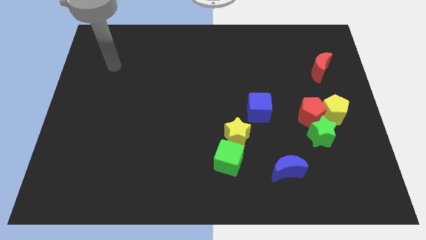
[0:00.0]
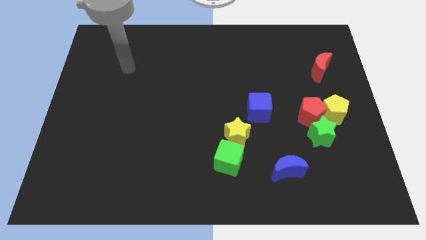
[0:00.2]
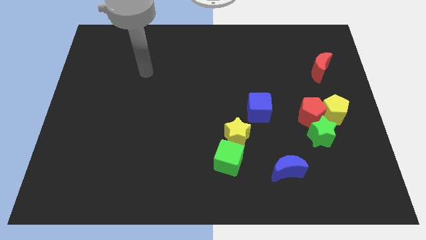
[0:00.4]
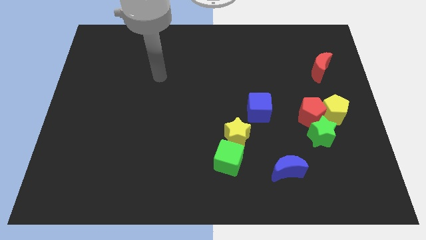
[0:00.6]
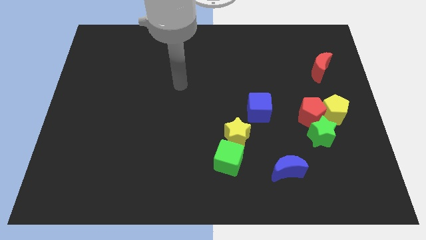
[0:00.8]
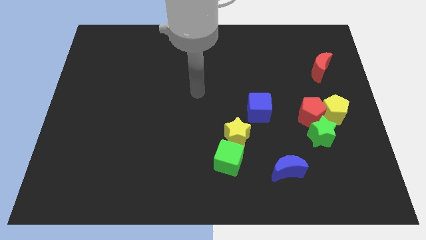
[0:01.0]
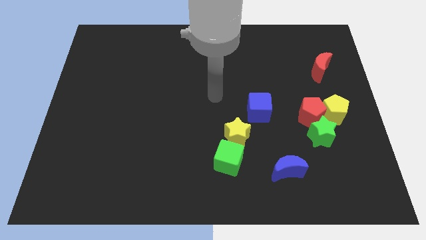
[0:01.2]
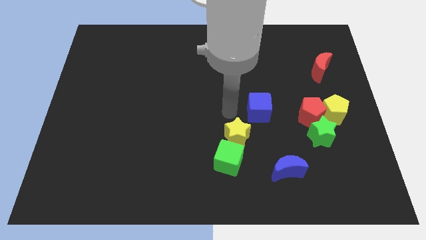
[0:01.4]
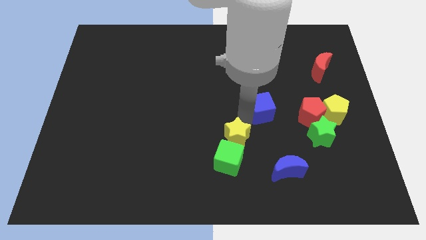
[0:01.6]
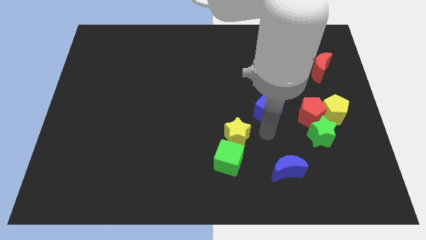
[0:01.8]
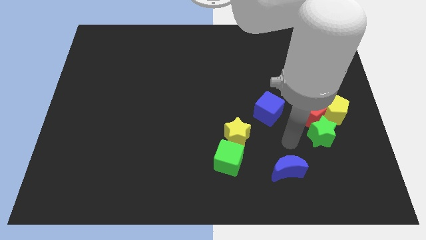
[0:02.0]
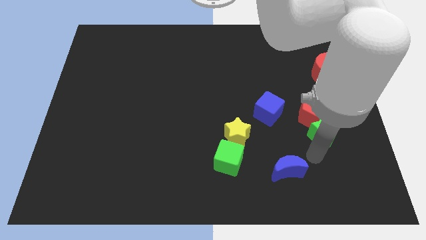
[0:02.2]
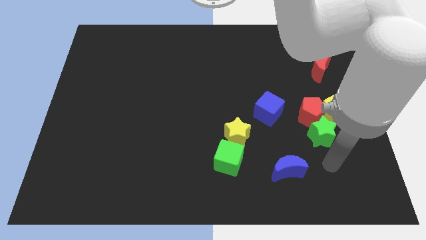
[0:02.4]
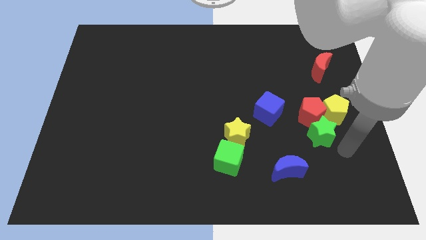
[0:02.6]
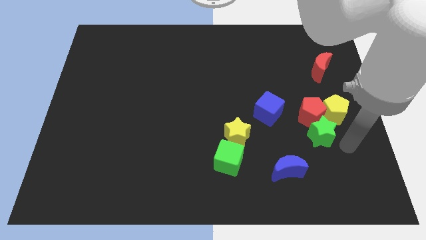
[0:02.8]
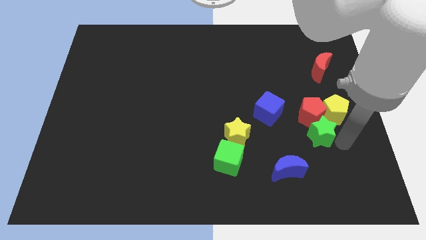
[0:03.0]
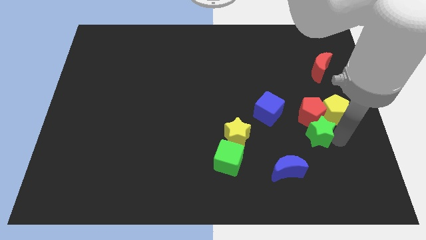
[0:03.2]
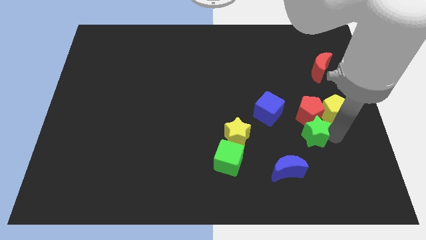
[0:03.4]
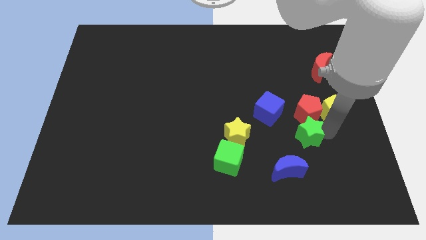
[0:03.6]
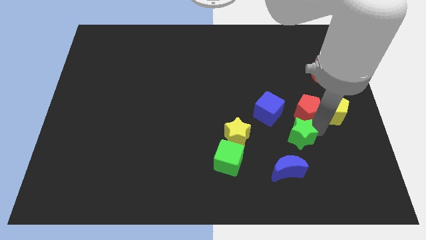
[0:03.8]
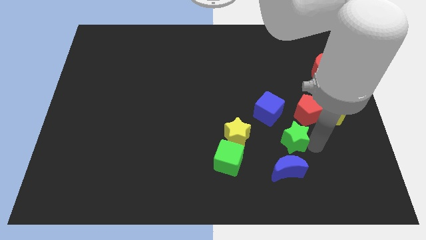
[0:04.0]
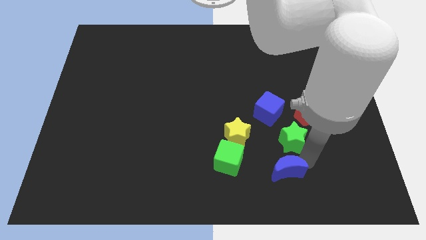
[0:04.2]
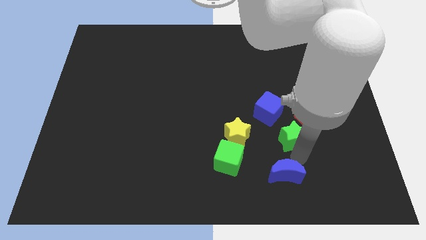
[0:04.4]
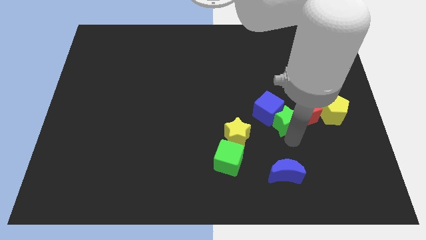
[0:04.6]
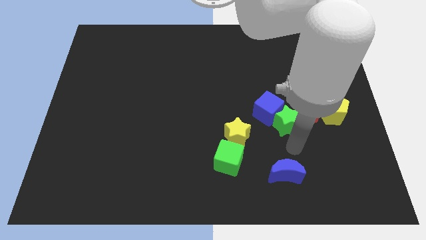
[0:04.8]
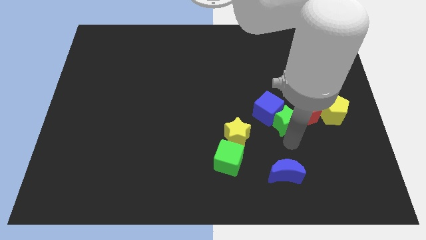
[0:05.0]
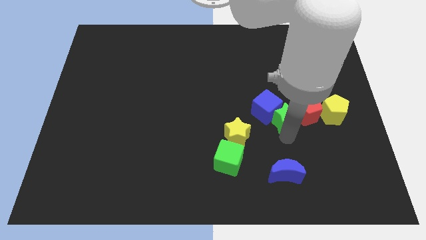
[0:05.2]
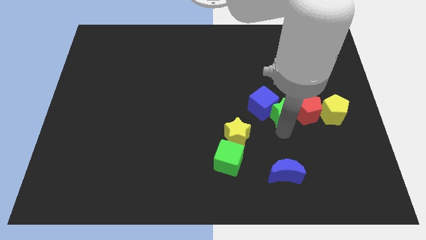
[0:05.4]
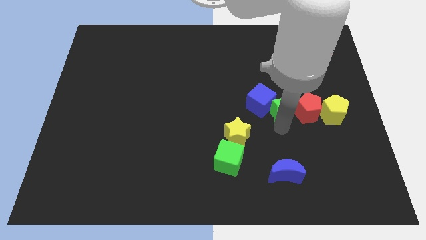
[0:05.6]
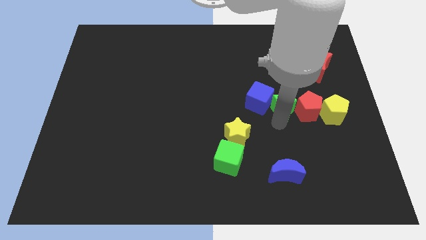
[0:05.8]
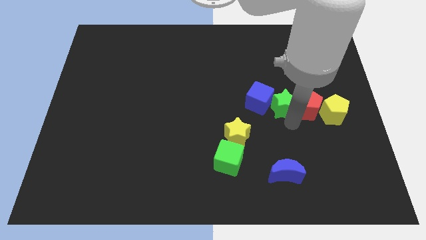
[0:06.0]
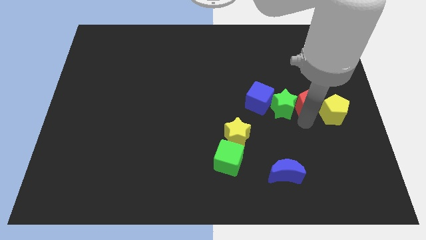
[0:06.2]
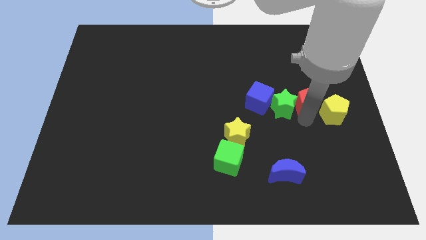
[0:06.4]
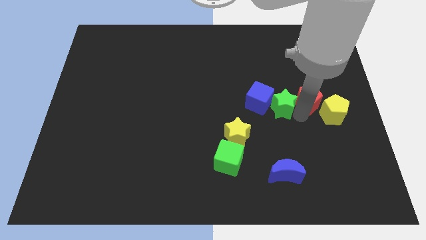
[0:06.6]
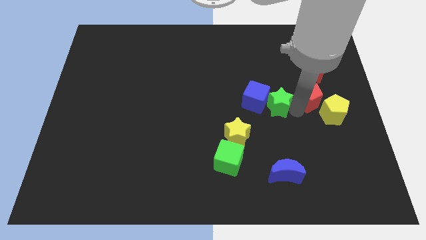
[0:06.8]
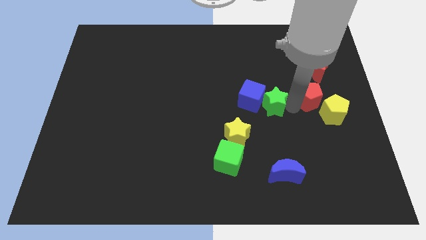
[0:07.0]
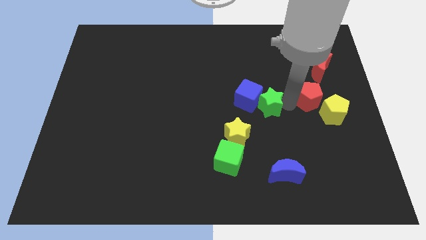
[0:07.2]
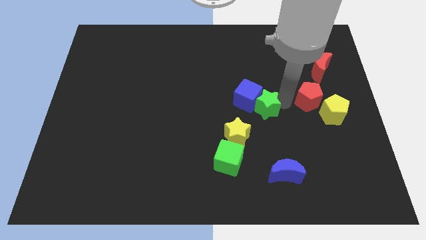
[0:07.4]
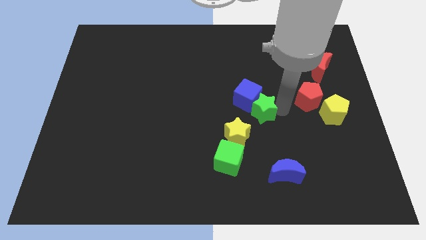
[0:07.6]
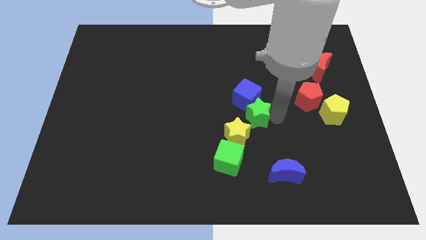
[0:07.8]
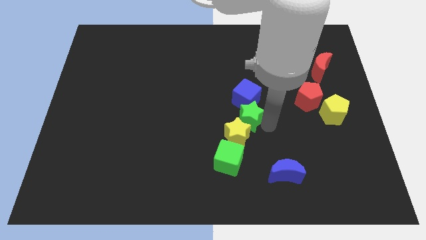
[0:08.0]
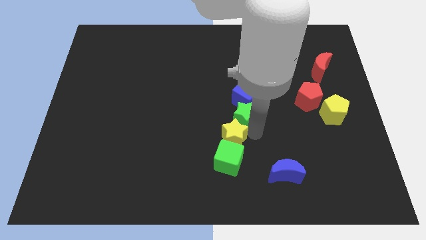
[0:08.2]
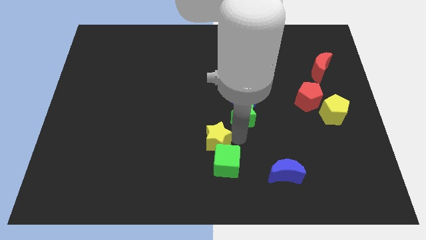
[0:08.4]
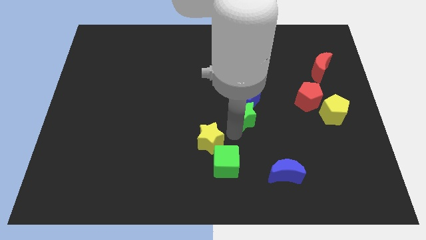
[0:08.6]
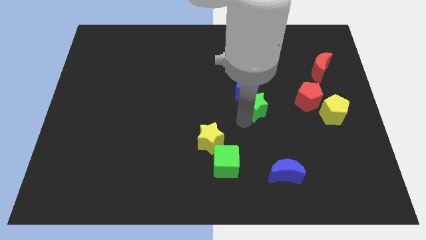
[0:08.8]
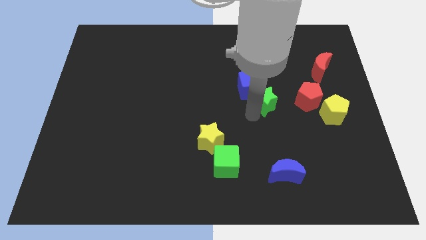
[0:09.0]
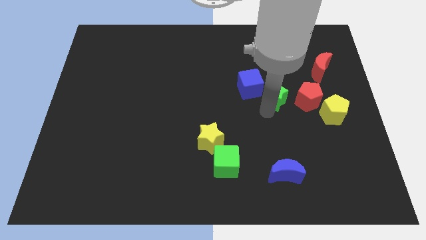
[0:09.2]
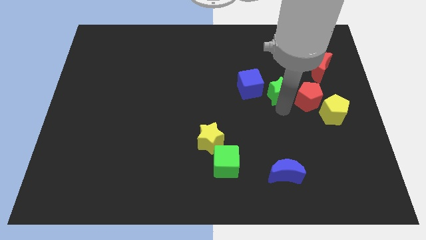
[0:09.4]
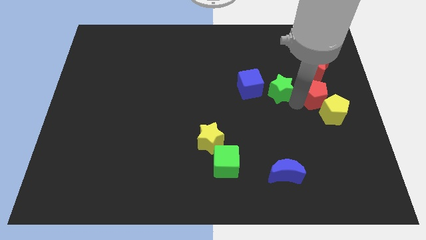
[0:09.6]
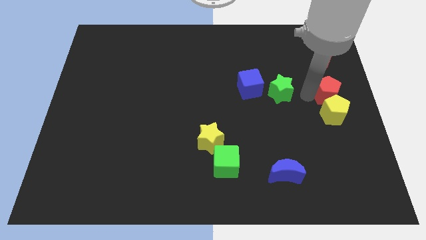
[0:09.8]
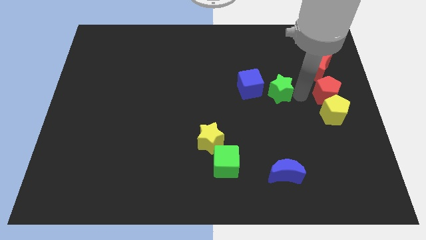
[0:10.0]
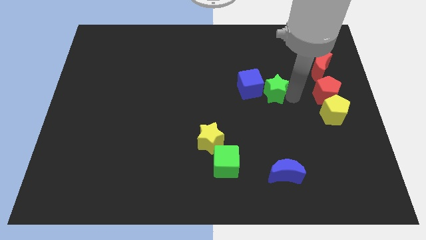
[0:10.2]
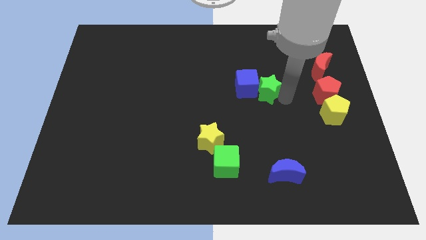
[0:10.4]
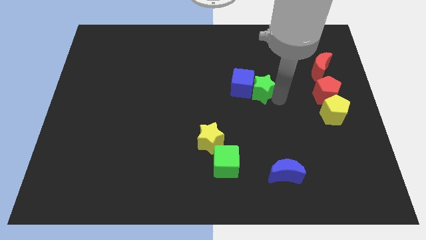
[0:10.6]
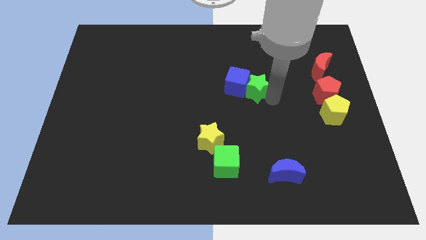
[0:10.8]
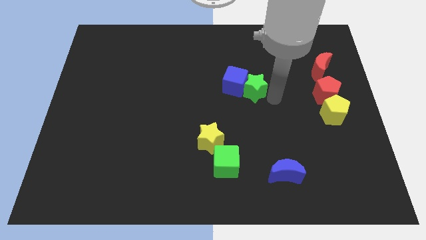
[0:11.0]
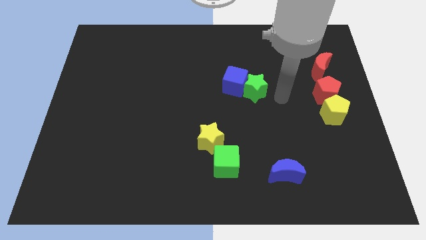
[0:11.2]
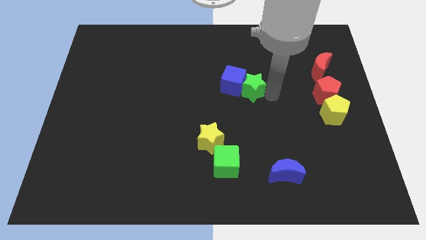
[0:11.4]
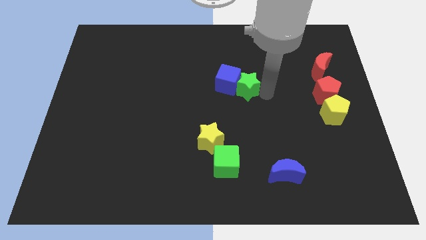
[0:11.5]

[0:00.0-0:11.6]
move the green star up and left diagonally

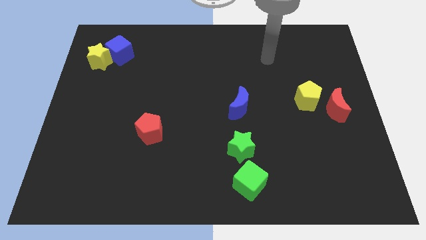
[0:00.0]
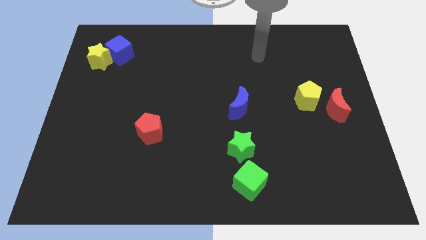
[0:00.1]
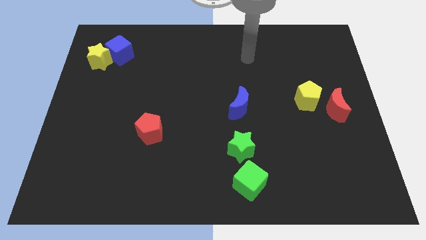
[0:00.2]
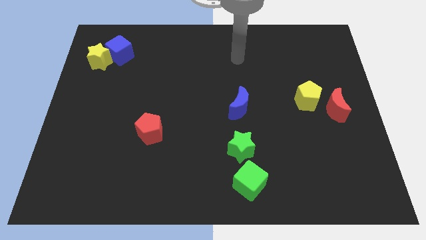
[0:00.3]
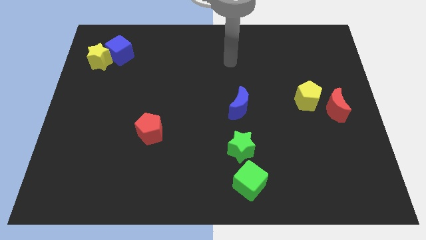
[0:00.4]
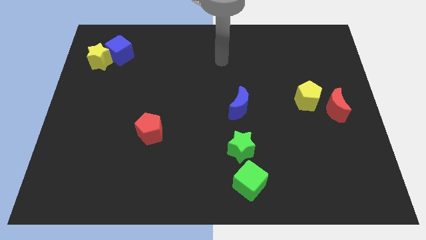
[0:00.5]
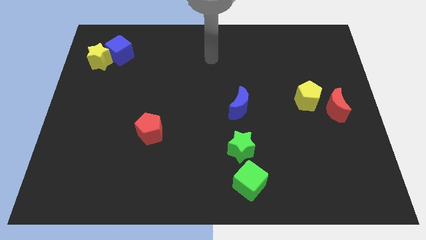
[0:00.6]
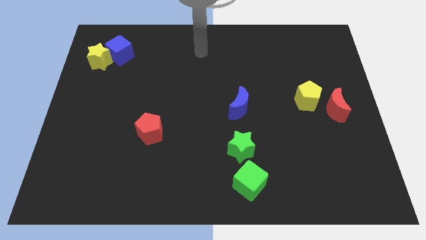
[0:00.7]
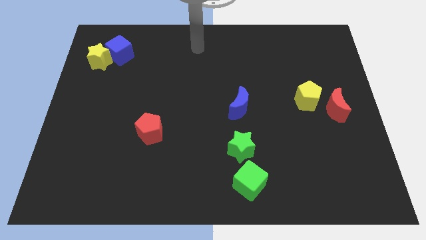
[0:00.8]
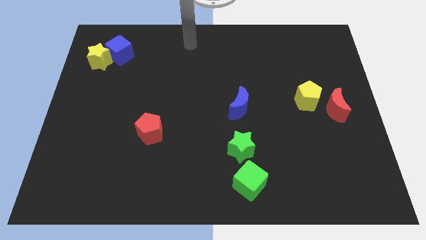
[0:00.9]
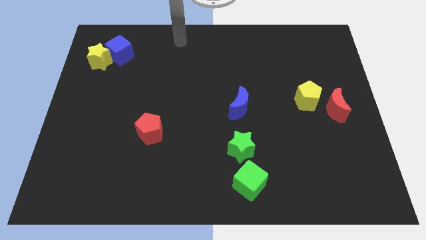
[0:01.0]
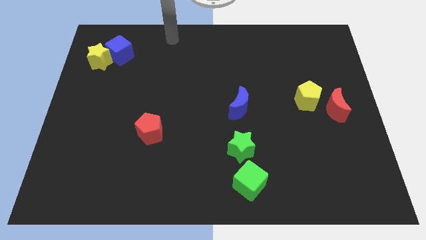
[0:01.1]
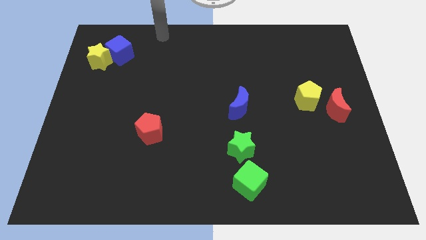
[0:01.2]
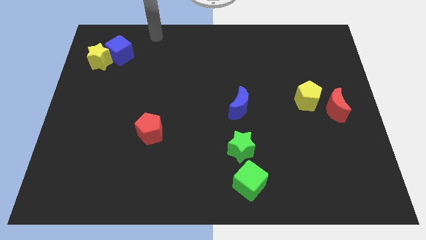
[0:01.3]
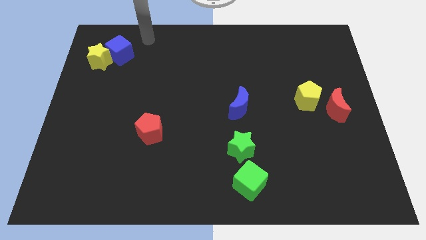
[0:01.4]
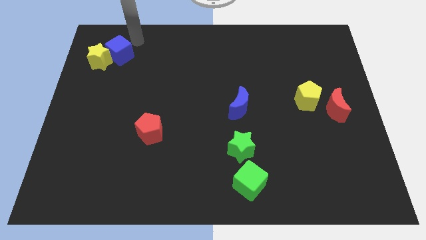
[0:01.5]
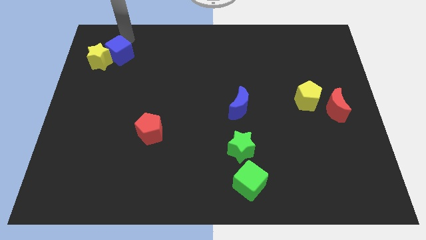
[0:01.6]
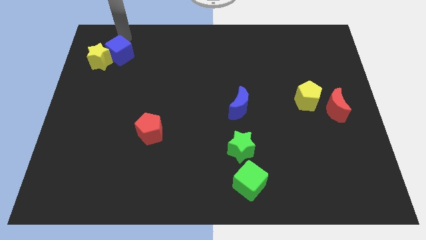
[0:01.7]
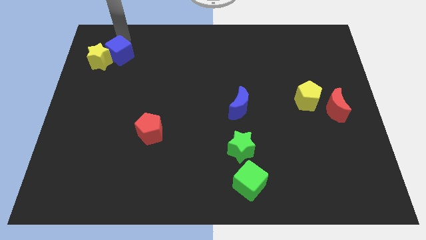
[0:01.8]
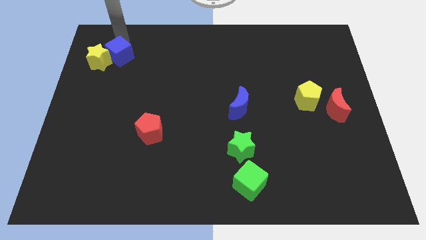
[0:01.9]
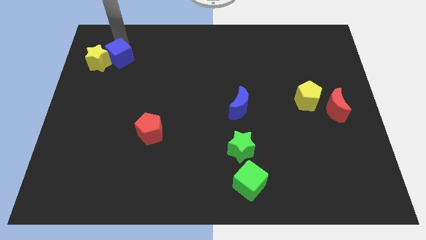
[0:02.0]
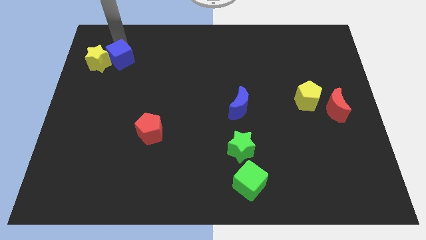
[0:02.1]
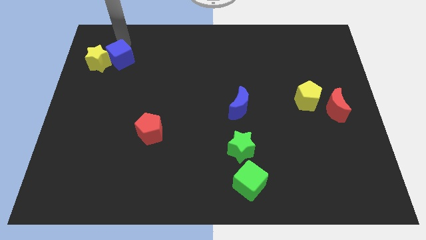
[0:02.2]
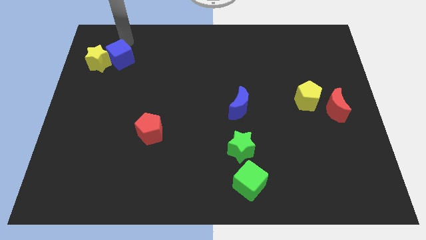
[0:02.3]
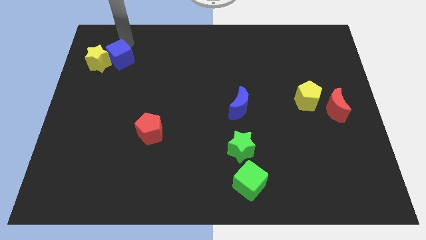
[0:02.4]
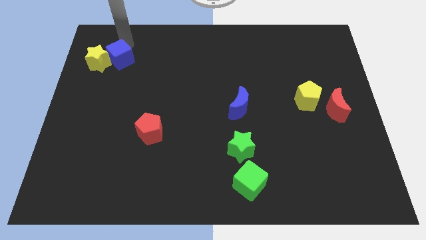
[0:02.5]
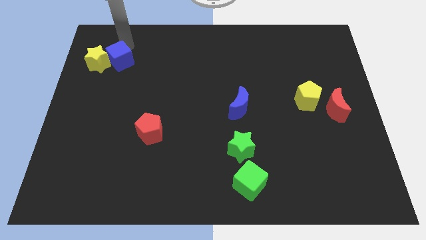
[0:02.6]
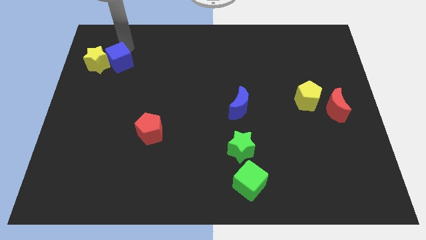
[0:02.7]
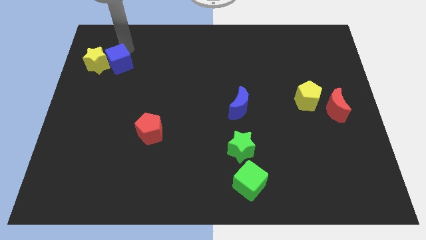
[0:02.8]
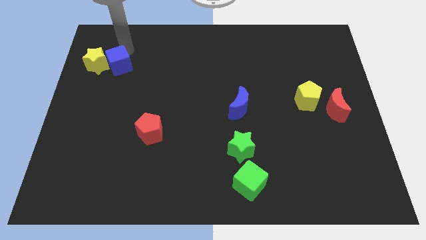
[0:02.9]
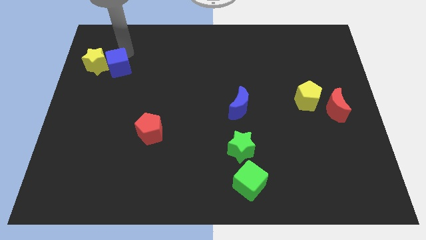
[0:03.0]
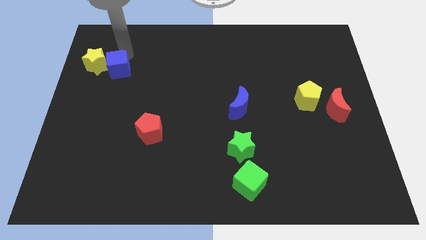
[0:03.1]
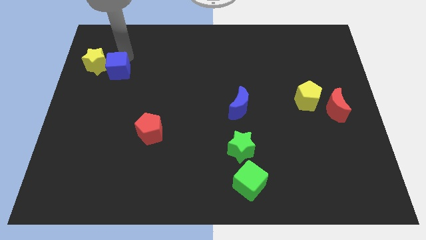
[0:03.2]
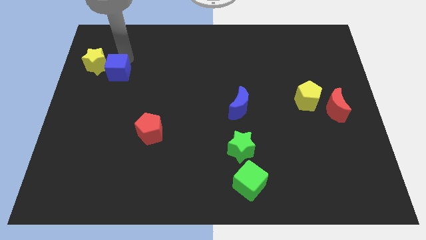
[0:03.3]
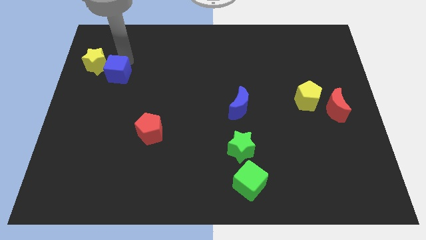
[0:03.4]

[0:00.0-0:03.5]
slightly move the blue cube down
